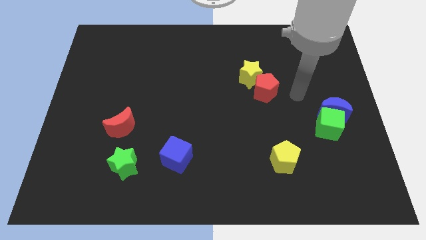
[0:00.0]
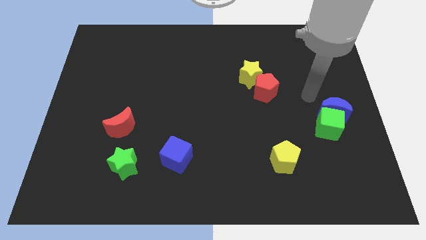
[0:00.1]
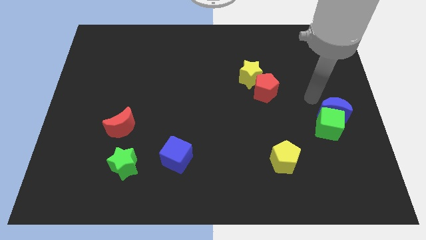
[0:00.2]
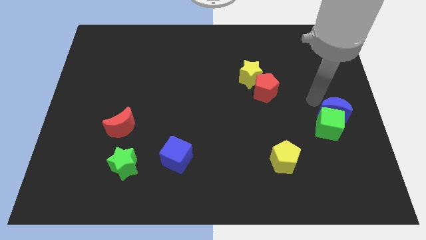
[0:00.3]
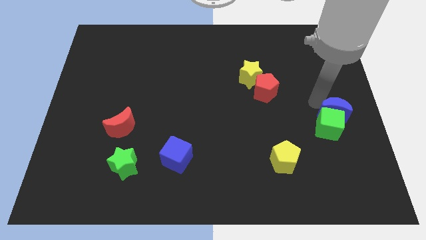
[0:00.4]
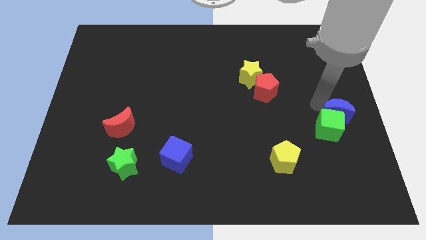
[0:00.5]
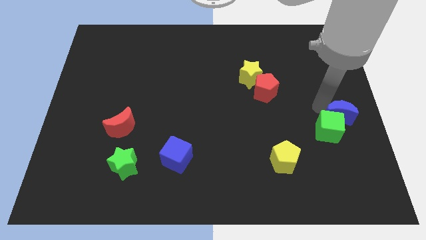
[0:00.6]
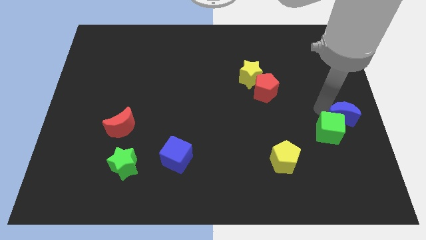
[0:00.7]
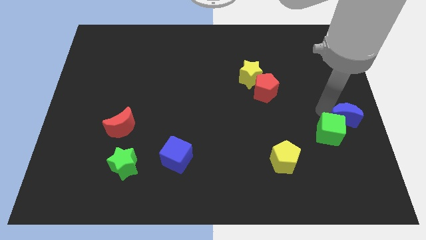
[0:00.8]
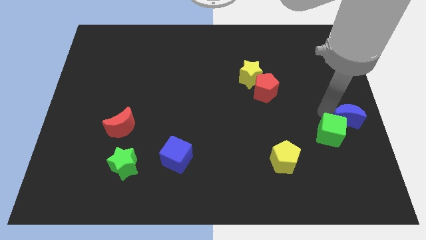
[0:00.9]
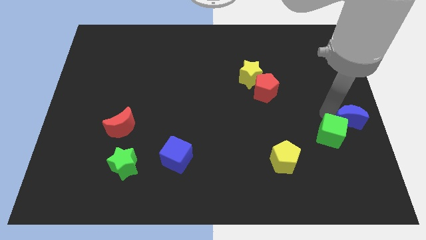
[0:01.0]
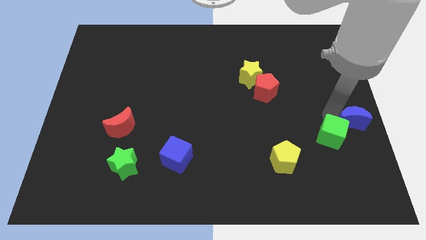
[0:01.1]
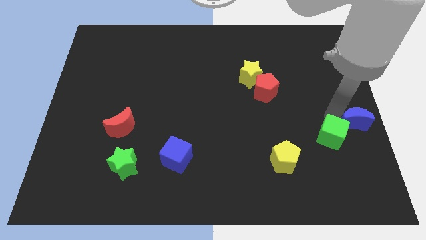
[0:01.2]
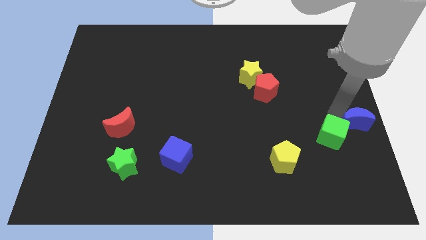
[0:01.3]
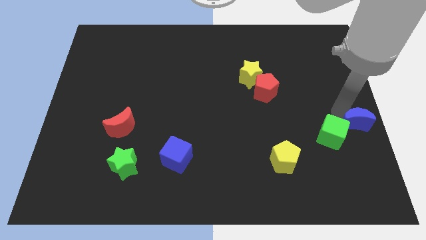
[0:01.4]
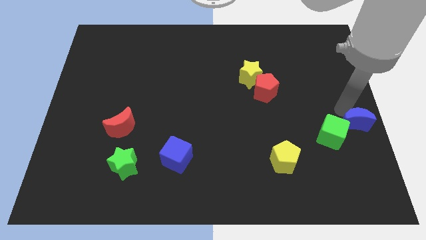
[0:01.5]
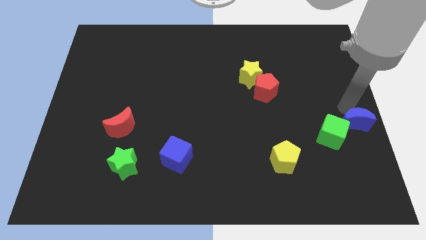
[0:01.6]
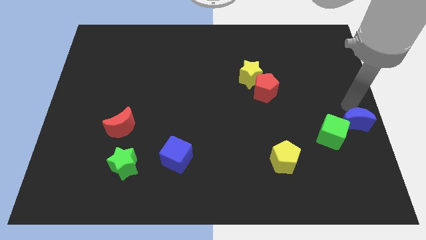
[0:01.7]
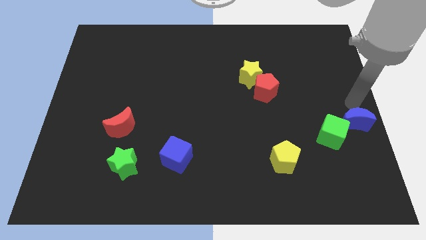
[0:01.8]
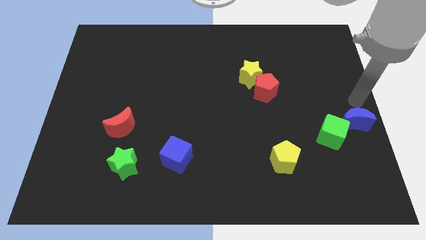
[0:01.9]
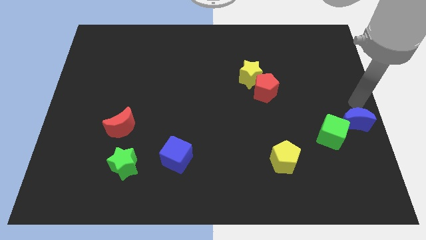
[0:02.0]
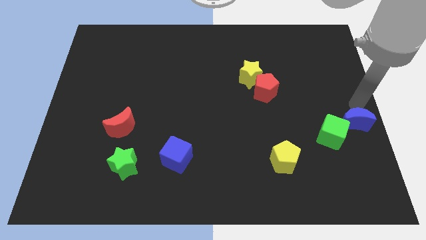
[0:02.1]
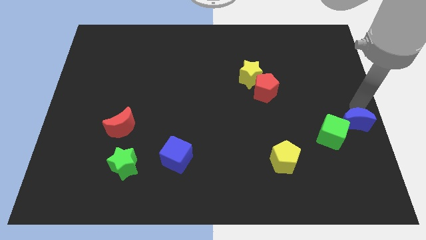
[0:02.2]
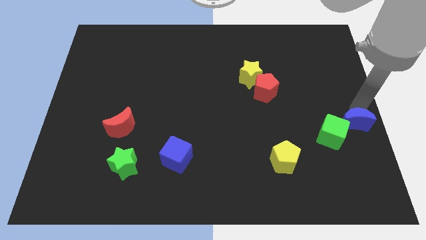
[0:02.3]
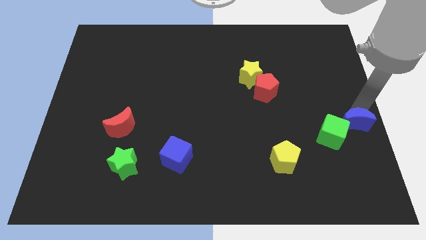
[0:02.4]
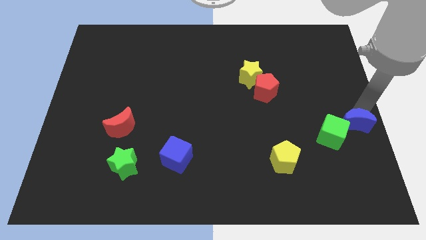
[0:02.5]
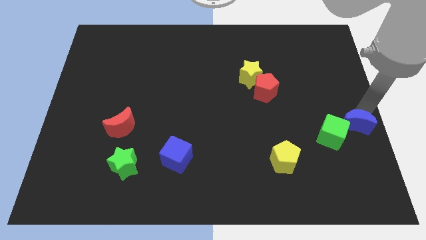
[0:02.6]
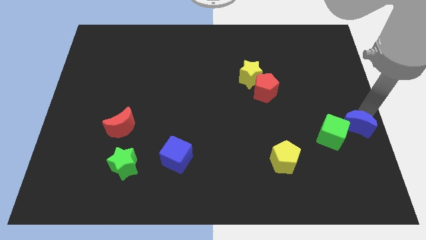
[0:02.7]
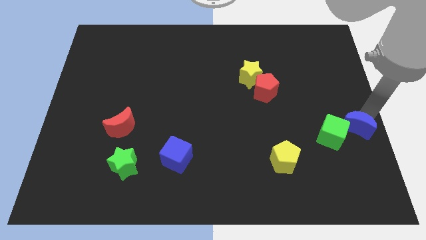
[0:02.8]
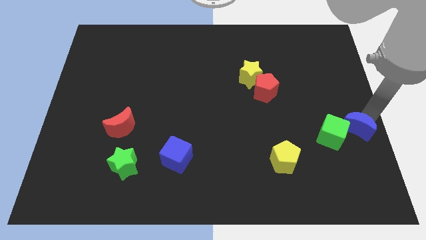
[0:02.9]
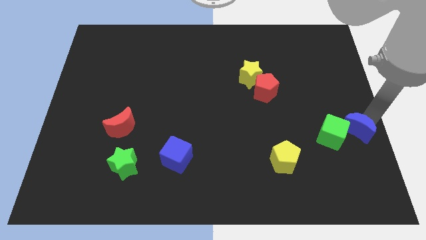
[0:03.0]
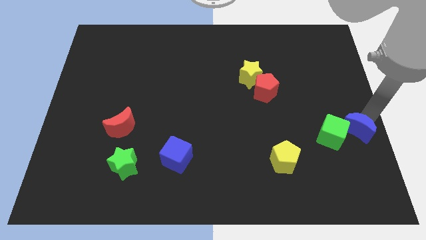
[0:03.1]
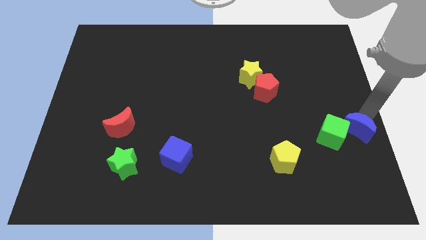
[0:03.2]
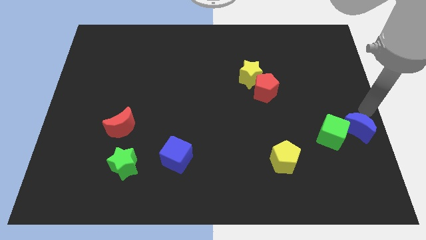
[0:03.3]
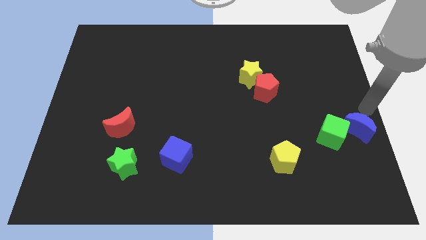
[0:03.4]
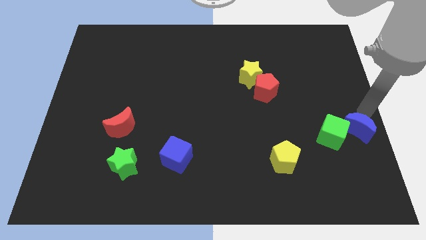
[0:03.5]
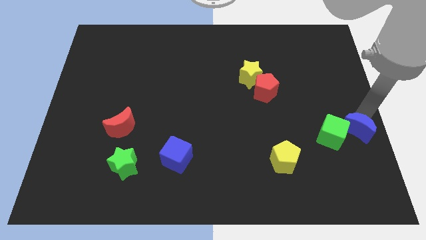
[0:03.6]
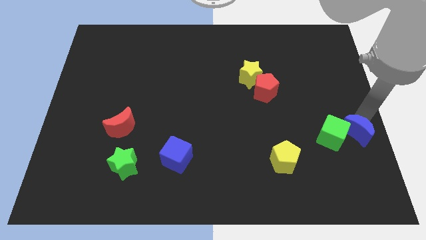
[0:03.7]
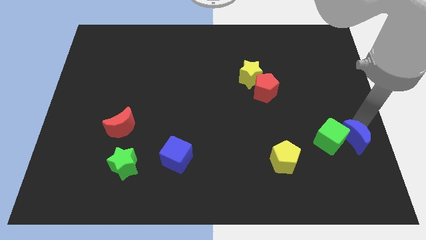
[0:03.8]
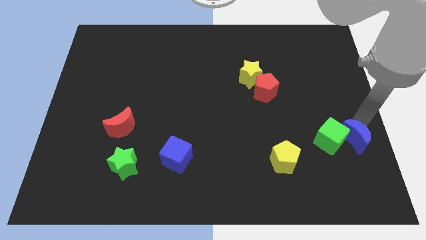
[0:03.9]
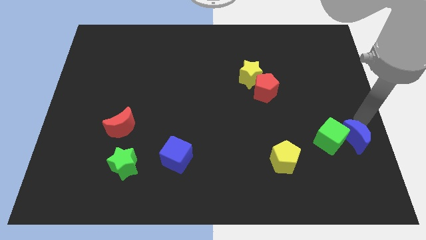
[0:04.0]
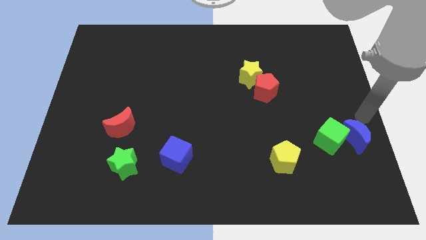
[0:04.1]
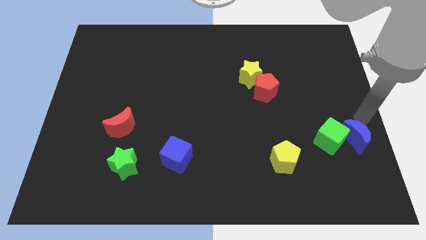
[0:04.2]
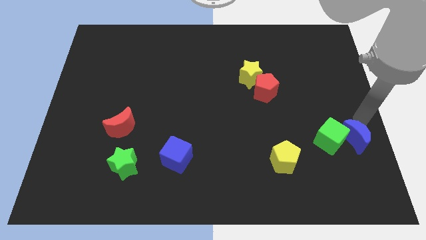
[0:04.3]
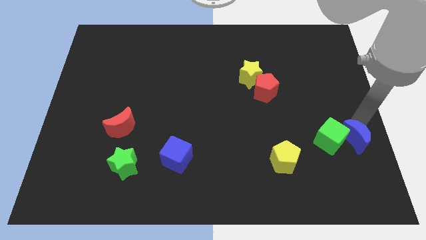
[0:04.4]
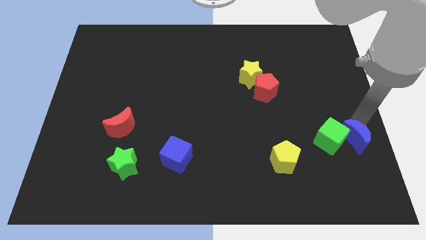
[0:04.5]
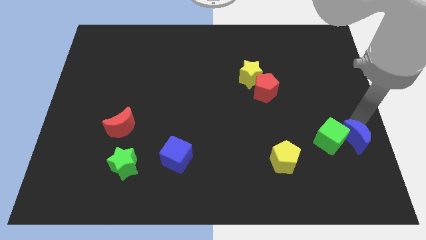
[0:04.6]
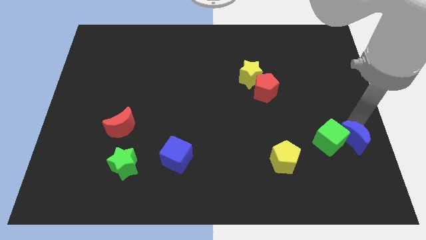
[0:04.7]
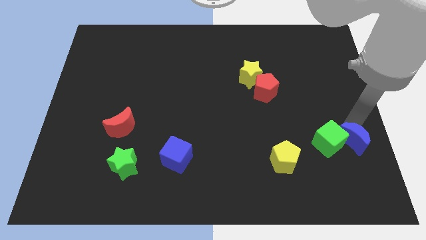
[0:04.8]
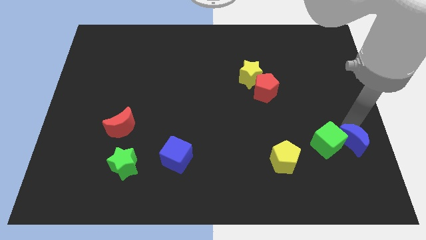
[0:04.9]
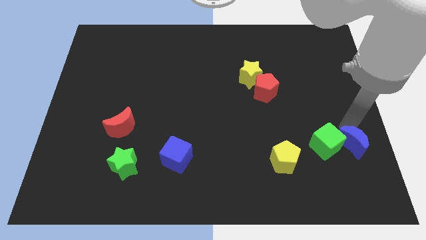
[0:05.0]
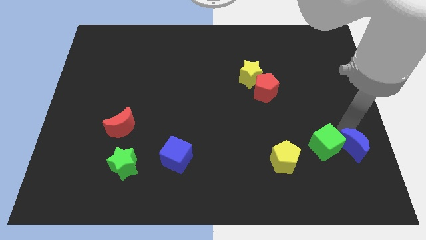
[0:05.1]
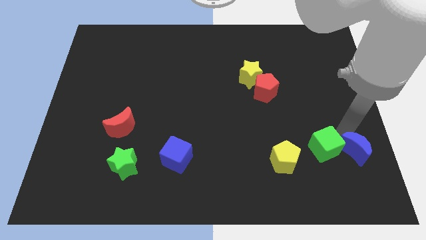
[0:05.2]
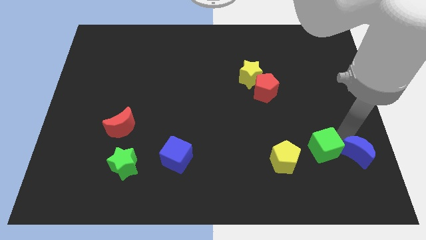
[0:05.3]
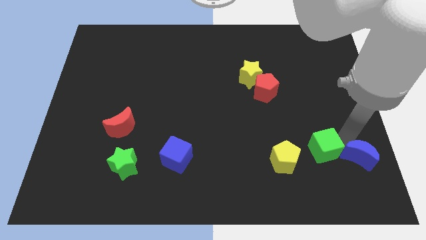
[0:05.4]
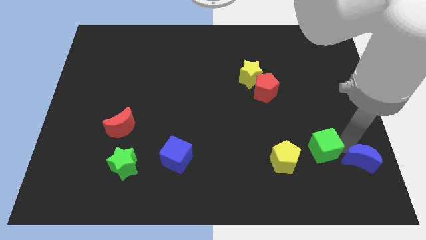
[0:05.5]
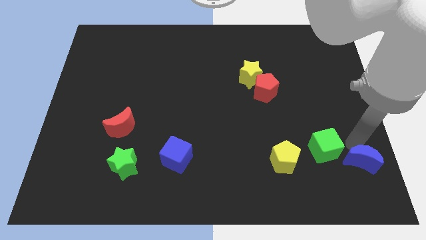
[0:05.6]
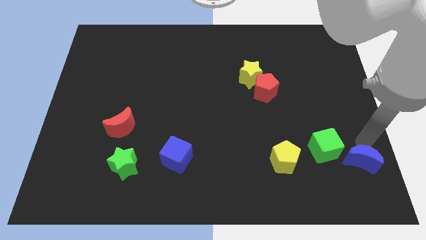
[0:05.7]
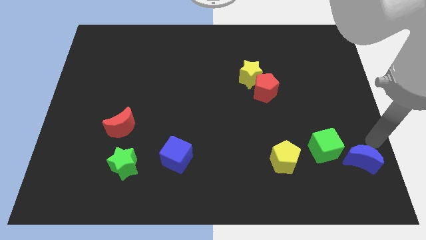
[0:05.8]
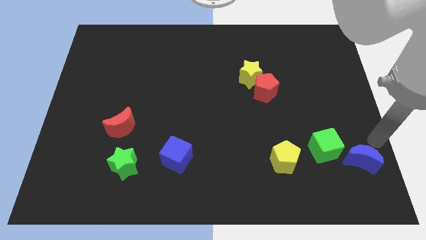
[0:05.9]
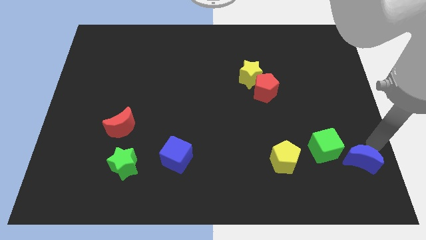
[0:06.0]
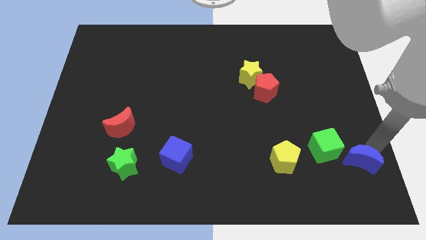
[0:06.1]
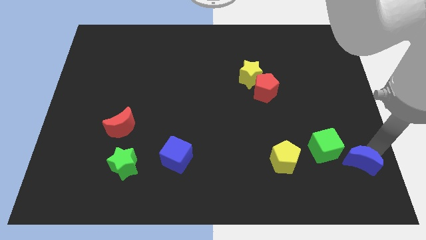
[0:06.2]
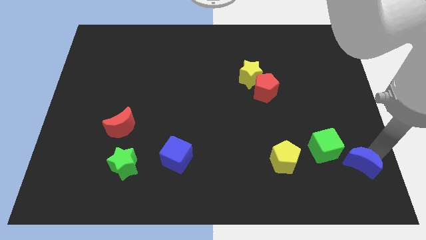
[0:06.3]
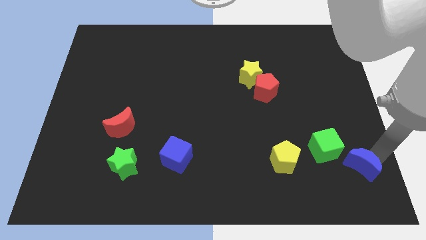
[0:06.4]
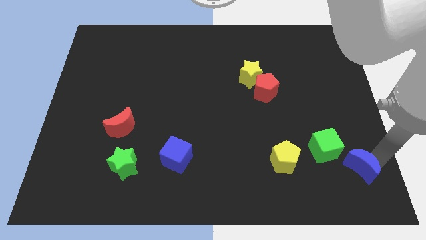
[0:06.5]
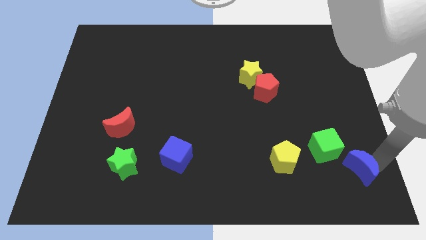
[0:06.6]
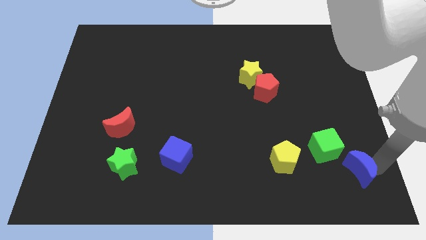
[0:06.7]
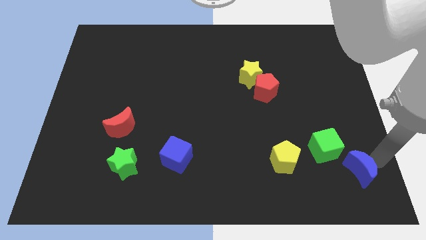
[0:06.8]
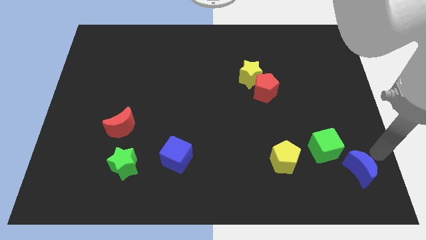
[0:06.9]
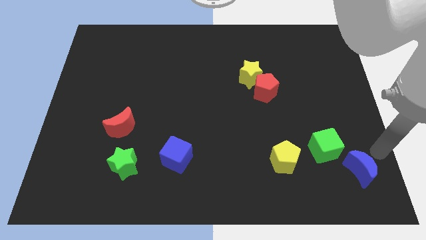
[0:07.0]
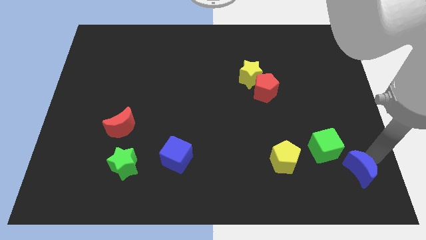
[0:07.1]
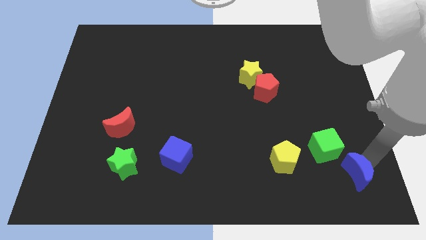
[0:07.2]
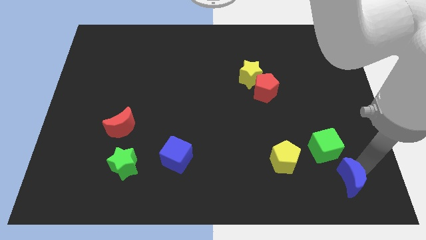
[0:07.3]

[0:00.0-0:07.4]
move the blue moon to the bottom of the green cube
